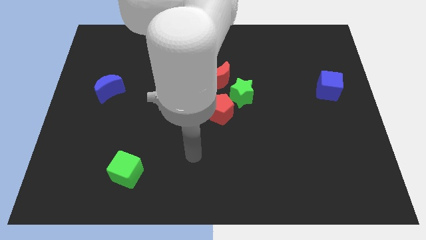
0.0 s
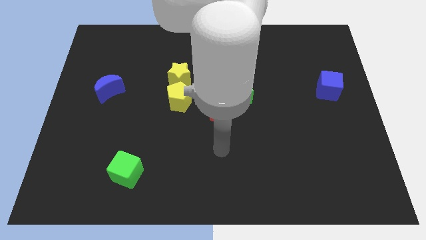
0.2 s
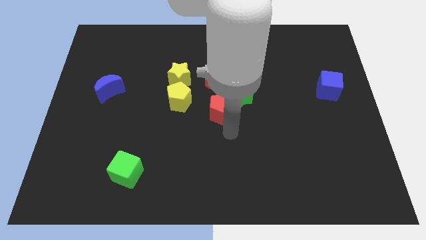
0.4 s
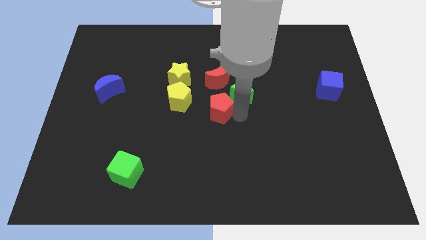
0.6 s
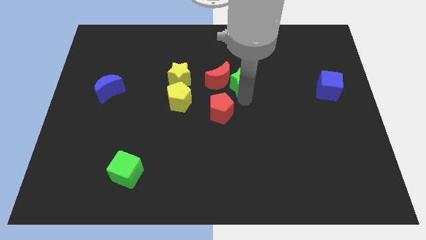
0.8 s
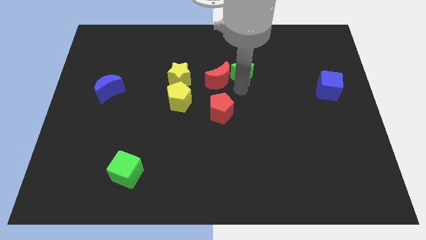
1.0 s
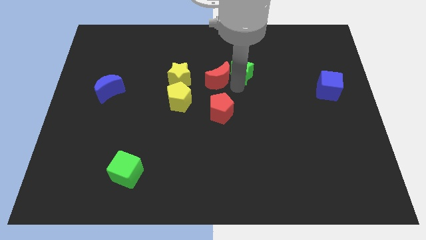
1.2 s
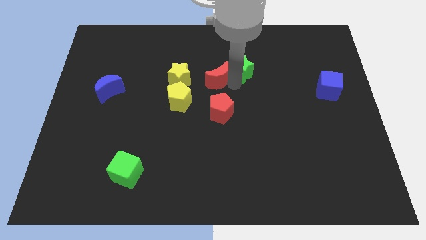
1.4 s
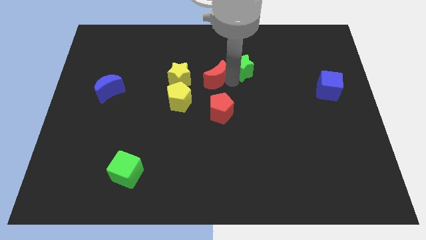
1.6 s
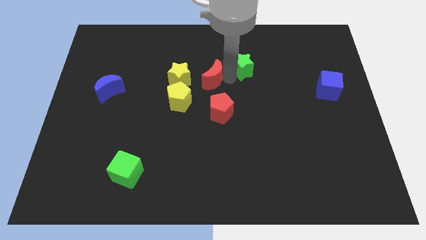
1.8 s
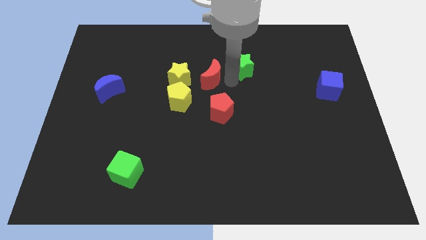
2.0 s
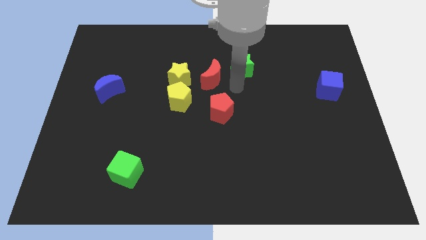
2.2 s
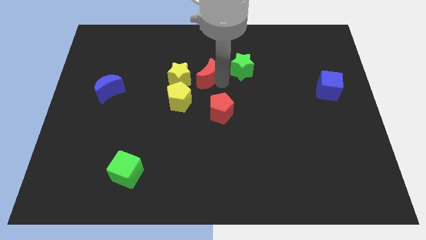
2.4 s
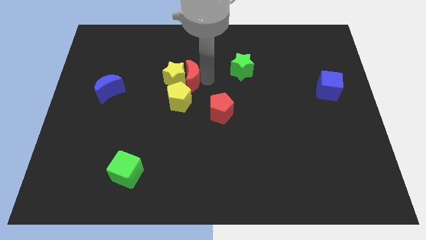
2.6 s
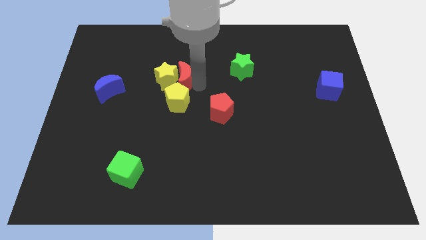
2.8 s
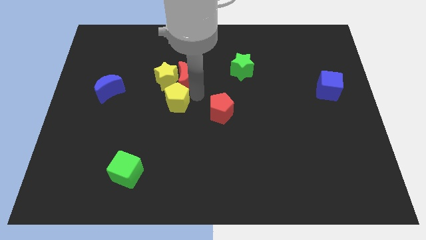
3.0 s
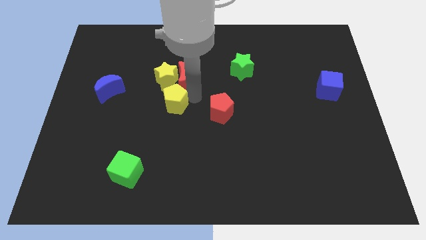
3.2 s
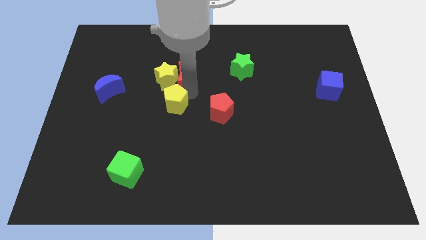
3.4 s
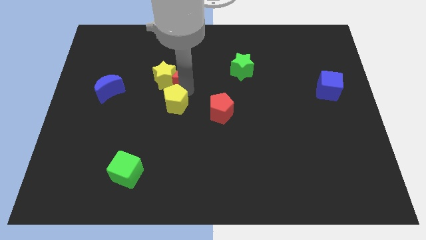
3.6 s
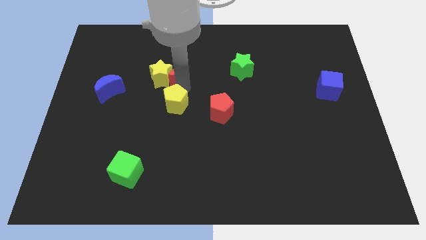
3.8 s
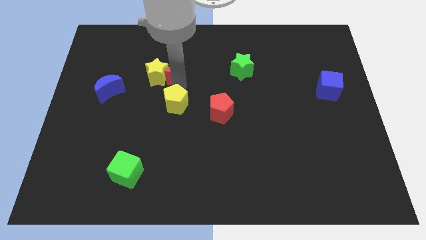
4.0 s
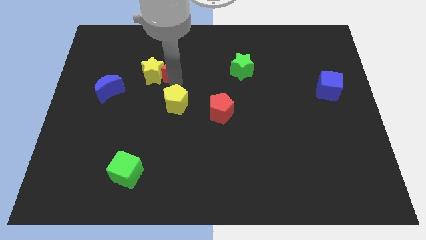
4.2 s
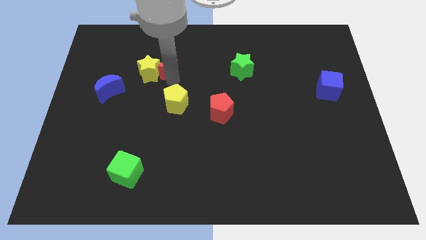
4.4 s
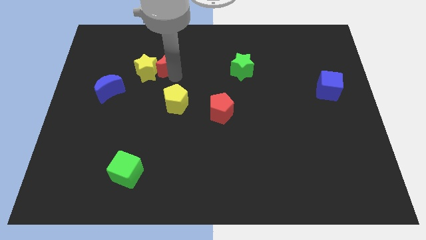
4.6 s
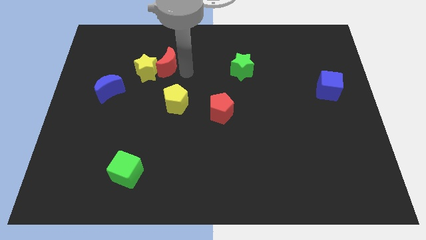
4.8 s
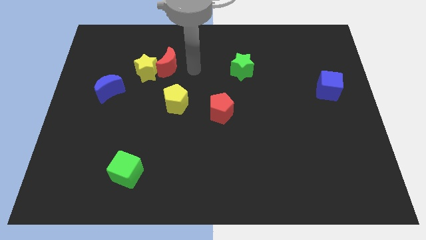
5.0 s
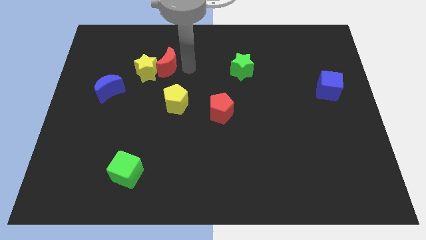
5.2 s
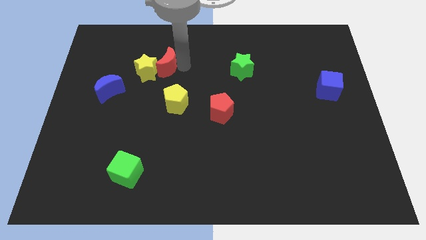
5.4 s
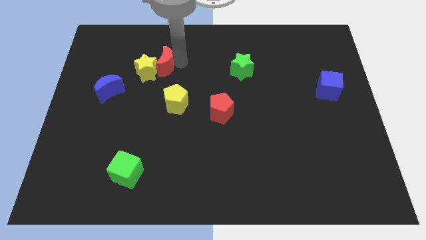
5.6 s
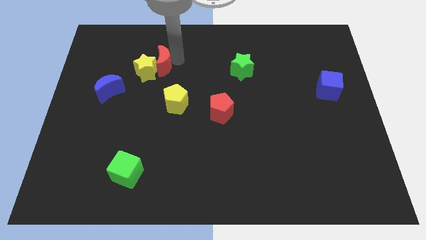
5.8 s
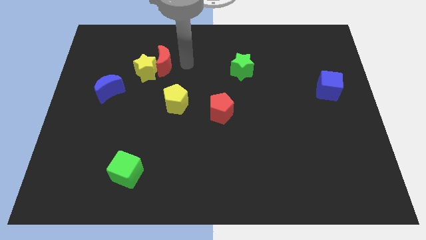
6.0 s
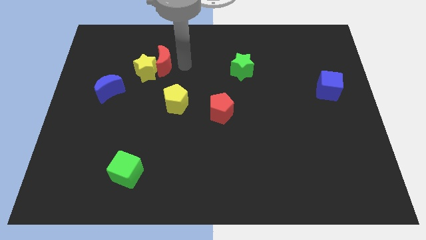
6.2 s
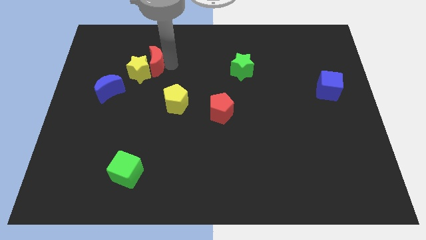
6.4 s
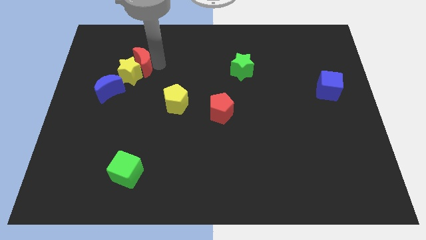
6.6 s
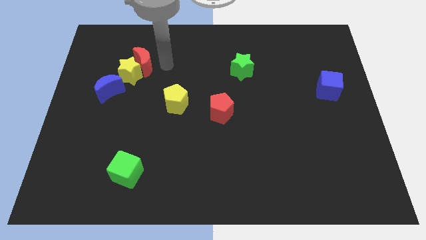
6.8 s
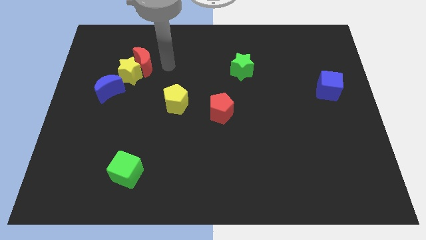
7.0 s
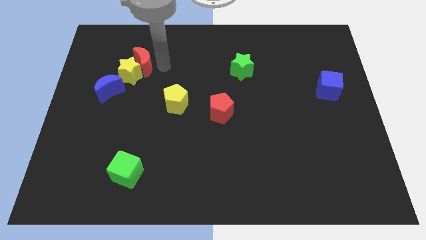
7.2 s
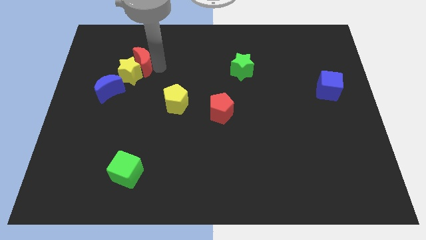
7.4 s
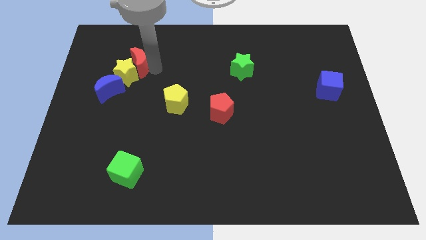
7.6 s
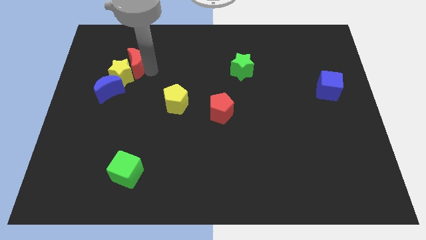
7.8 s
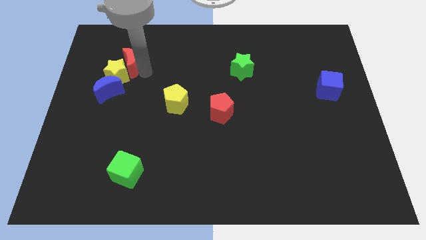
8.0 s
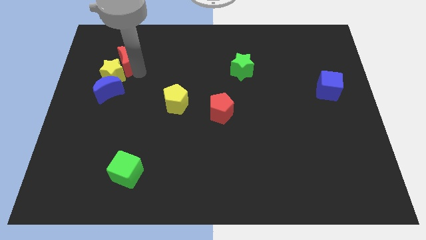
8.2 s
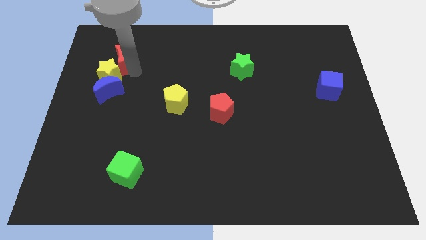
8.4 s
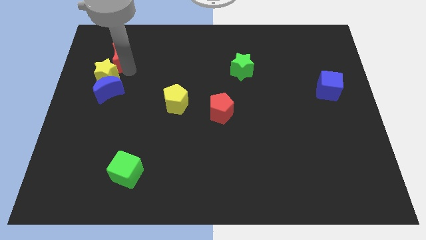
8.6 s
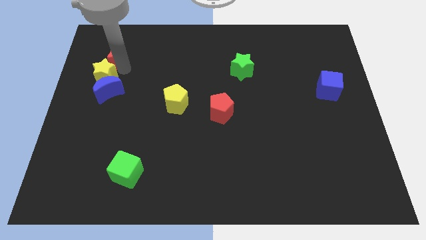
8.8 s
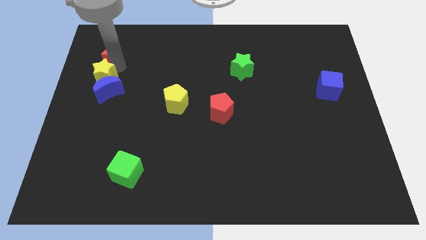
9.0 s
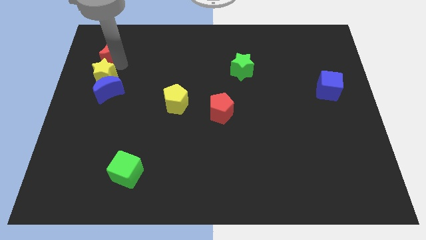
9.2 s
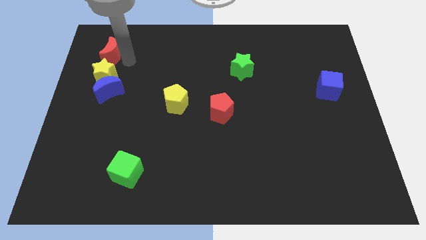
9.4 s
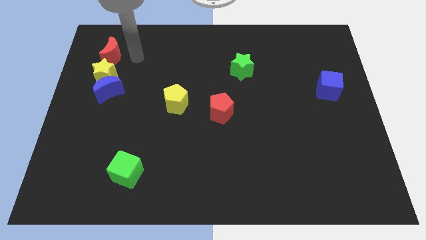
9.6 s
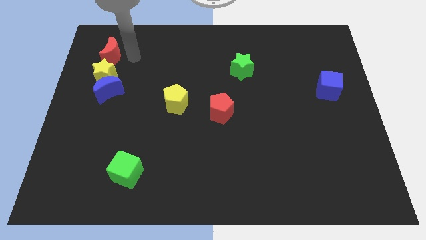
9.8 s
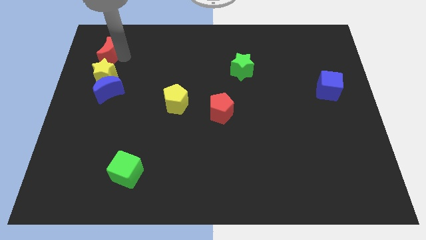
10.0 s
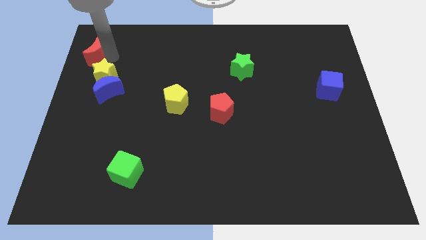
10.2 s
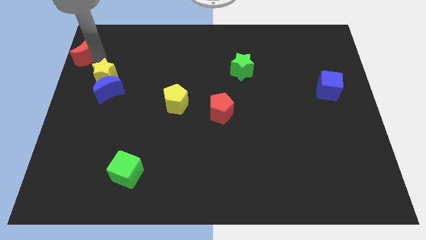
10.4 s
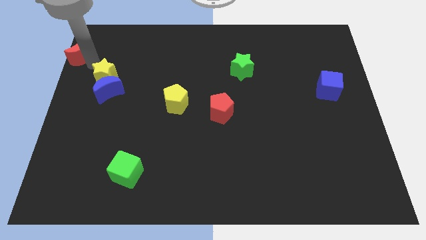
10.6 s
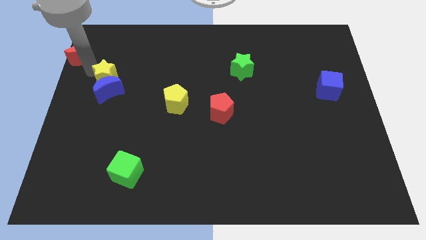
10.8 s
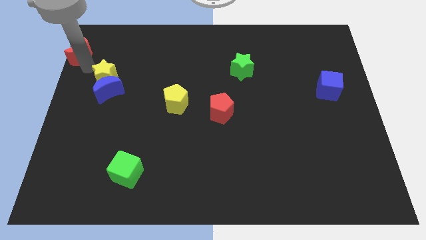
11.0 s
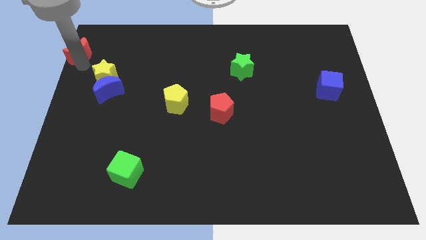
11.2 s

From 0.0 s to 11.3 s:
slide the red moon to the top left corner
